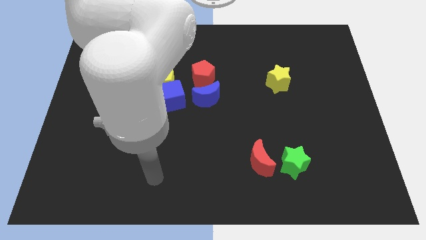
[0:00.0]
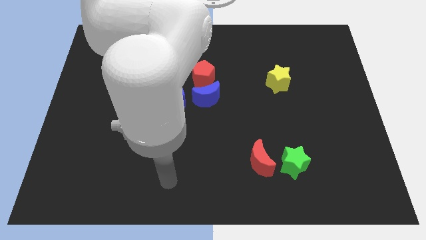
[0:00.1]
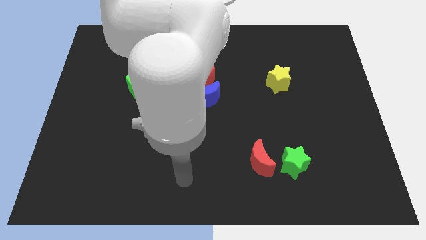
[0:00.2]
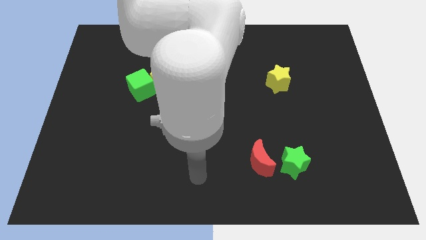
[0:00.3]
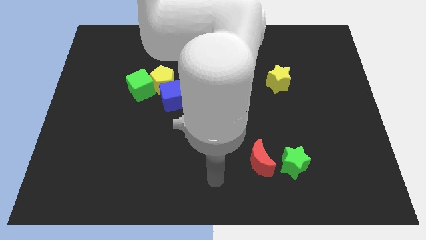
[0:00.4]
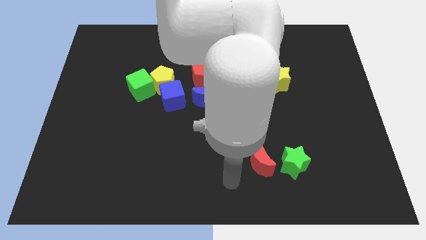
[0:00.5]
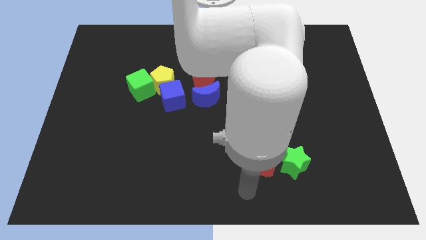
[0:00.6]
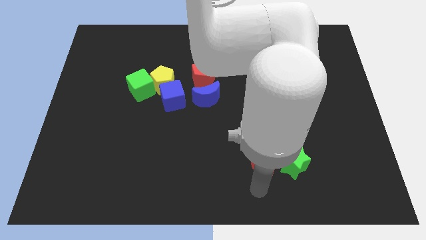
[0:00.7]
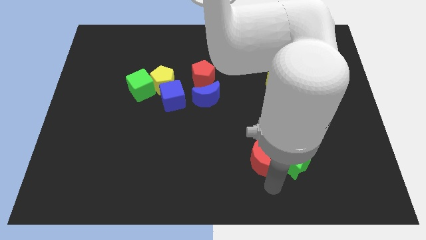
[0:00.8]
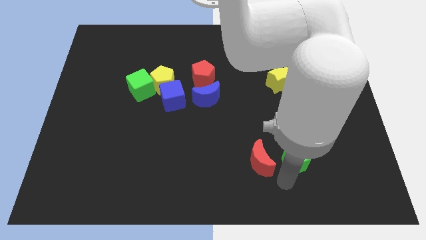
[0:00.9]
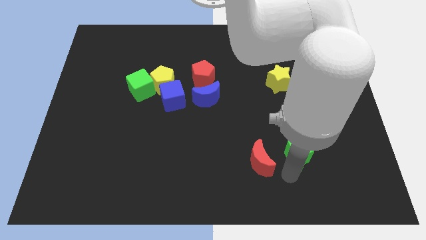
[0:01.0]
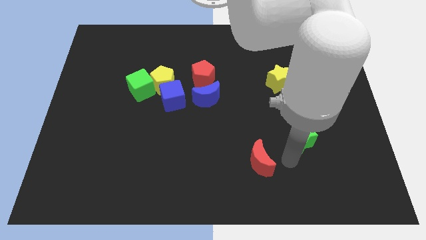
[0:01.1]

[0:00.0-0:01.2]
move the red moon away from the green star

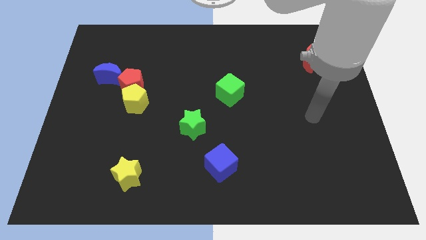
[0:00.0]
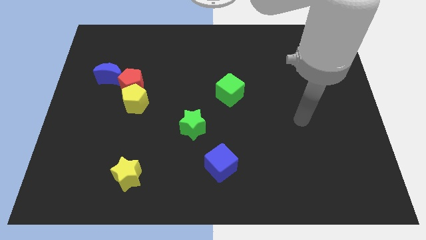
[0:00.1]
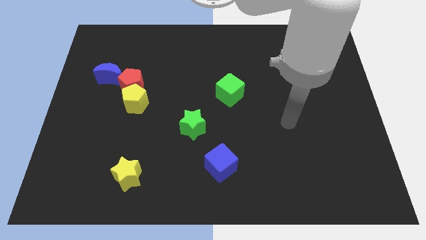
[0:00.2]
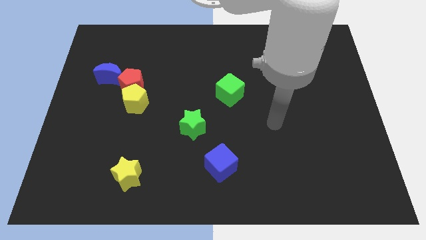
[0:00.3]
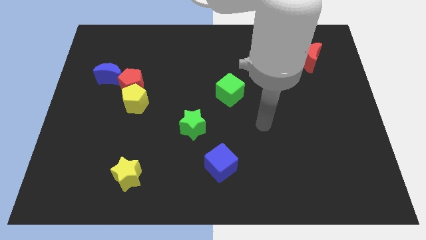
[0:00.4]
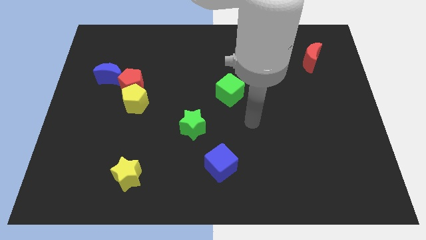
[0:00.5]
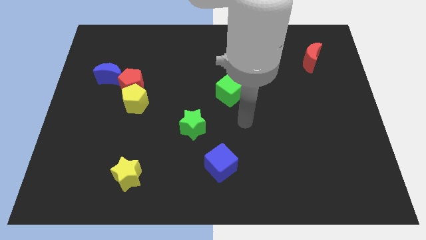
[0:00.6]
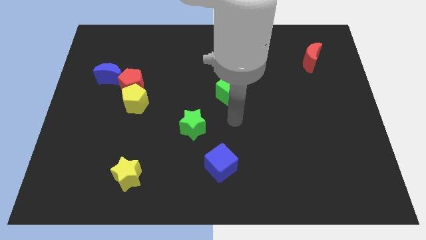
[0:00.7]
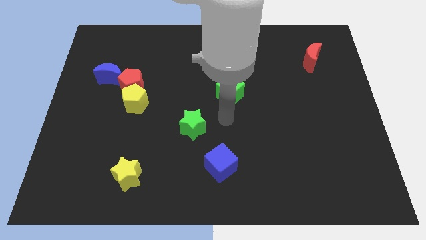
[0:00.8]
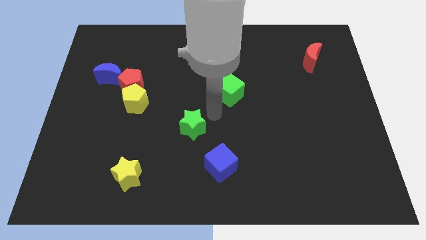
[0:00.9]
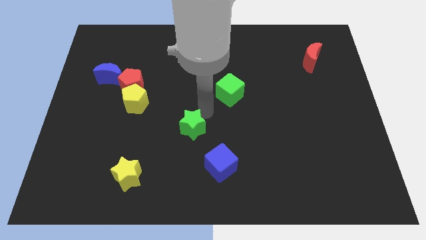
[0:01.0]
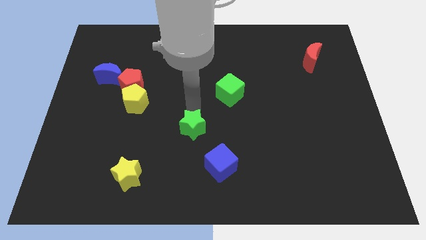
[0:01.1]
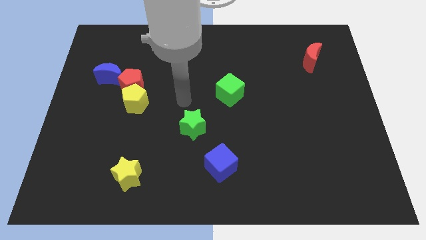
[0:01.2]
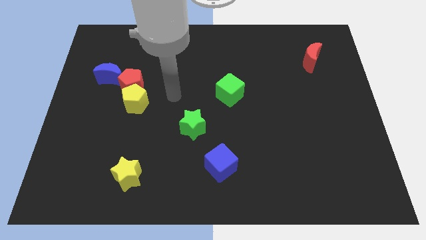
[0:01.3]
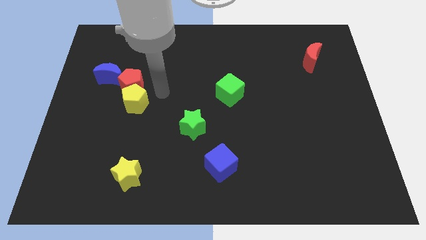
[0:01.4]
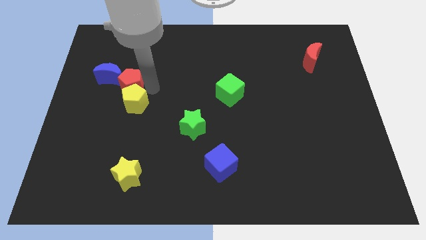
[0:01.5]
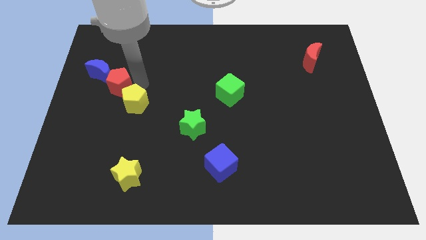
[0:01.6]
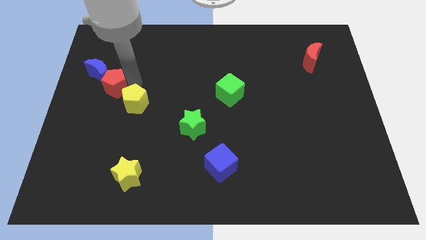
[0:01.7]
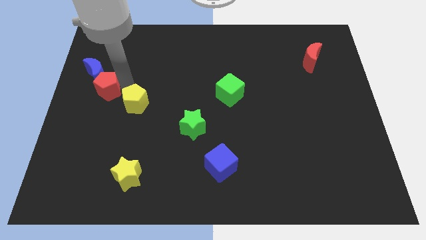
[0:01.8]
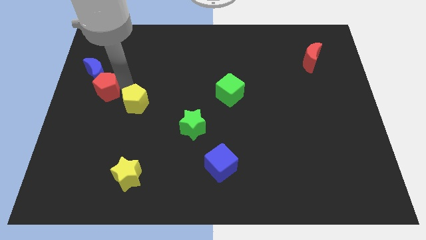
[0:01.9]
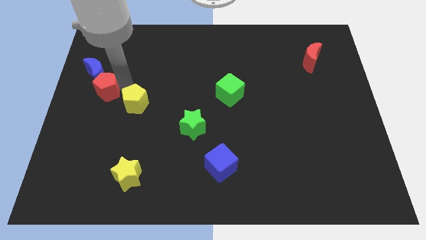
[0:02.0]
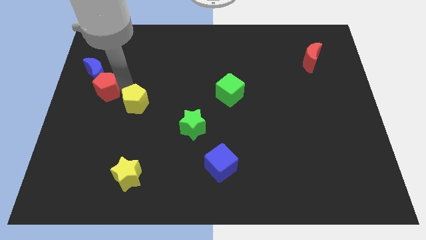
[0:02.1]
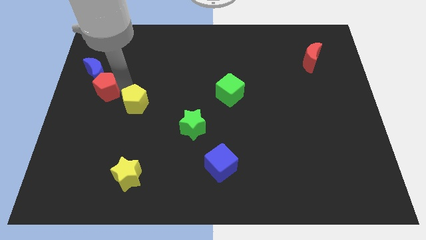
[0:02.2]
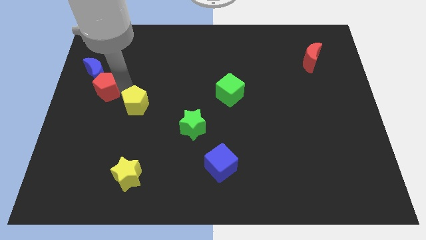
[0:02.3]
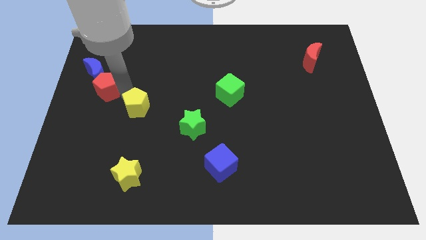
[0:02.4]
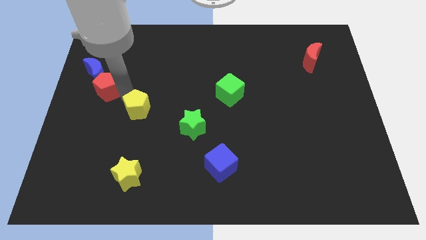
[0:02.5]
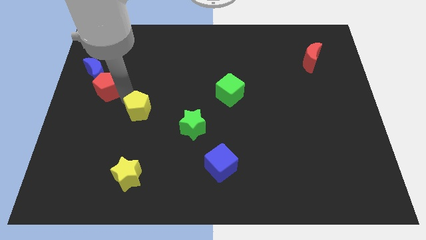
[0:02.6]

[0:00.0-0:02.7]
move the yellow pentagon away from the red pentagon

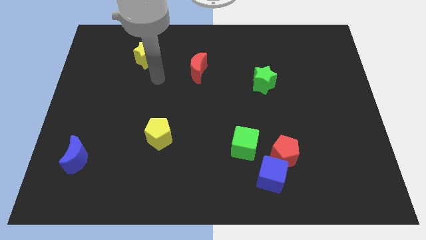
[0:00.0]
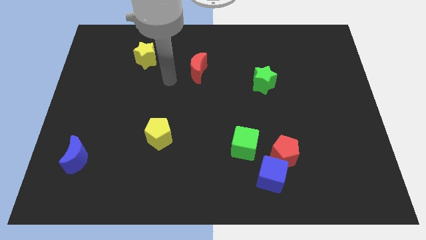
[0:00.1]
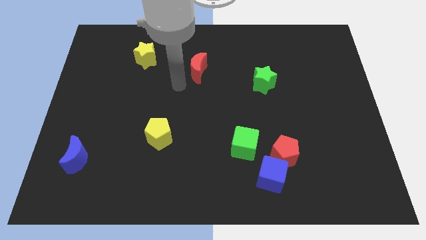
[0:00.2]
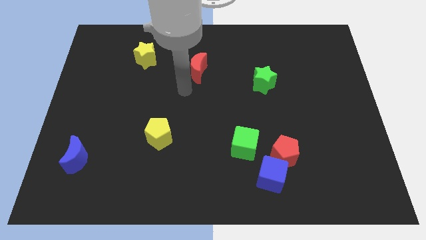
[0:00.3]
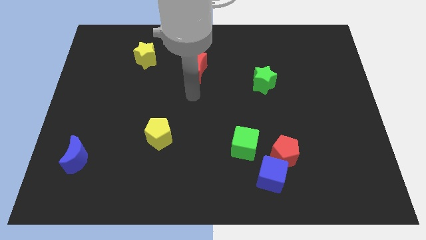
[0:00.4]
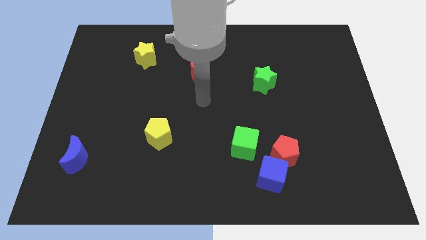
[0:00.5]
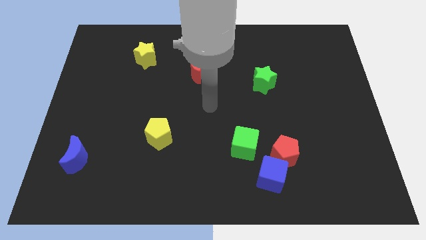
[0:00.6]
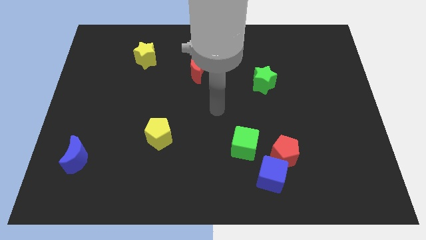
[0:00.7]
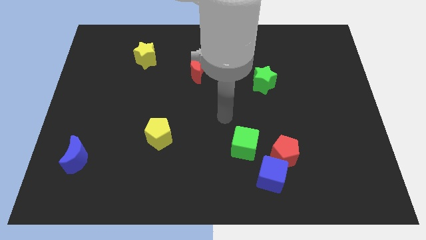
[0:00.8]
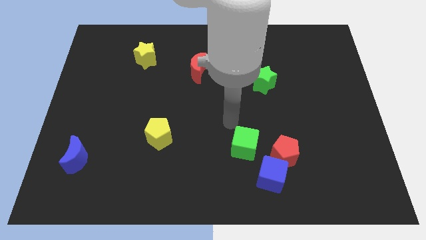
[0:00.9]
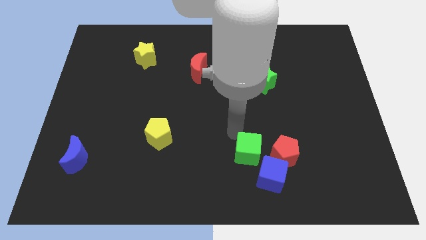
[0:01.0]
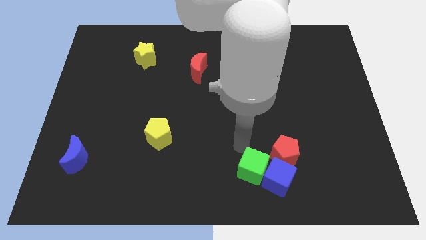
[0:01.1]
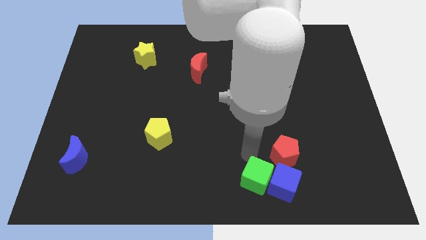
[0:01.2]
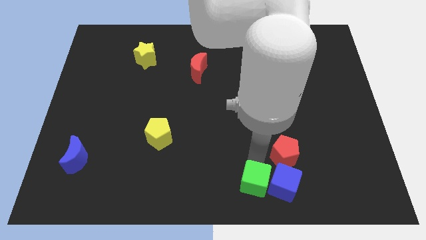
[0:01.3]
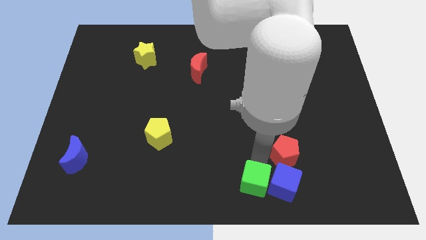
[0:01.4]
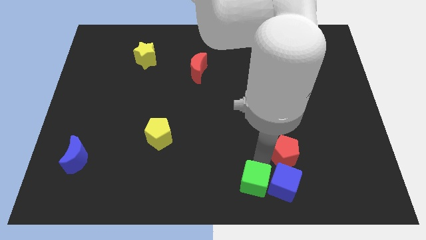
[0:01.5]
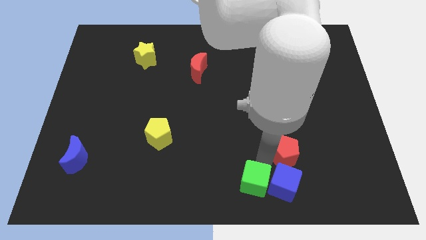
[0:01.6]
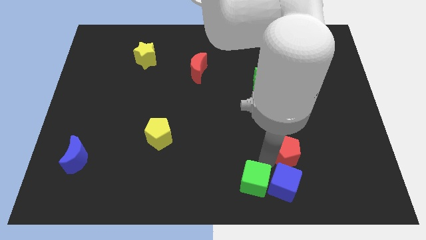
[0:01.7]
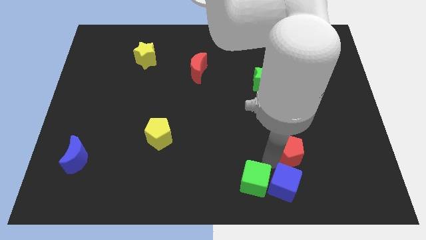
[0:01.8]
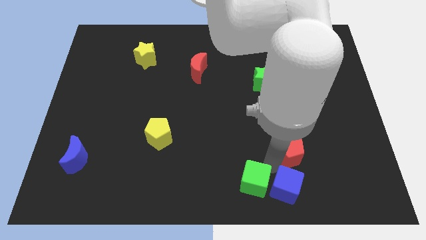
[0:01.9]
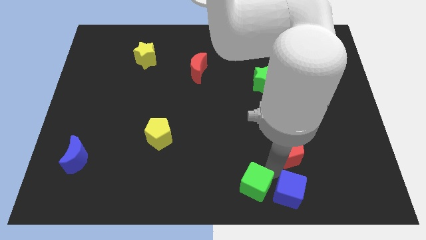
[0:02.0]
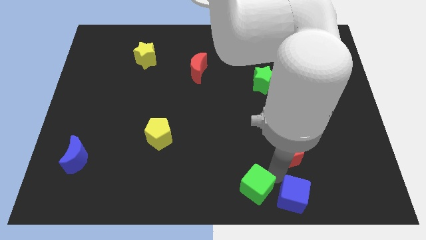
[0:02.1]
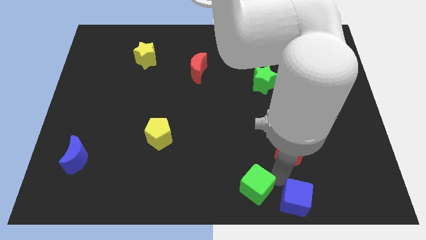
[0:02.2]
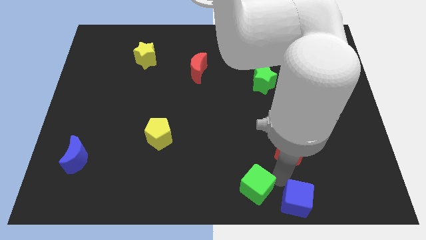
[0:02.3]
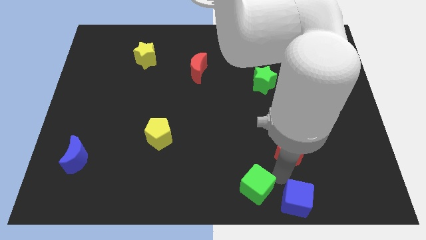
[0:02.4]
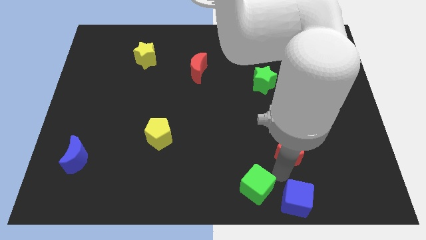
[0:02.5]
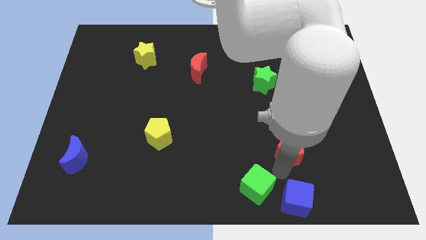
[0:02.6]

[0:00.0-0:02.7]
move the red pentagon away from the blue cube and green cube

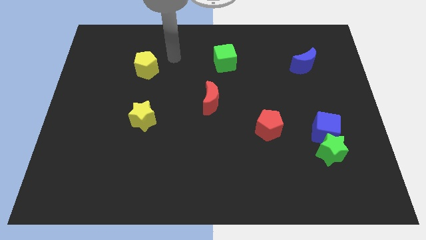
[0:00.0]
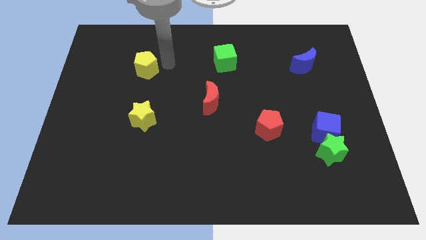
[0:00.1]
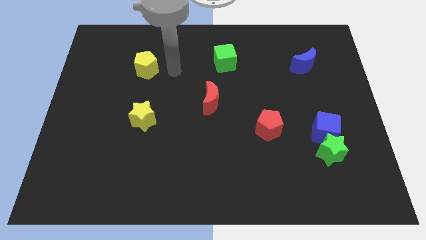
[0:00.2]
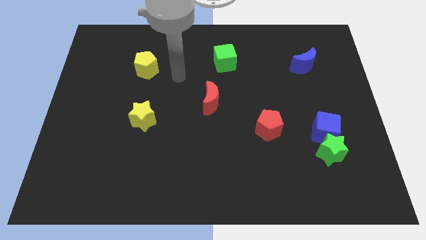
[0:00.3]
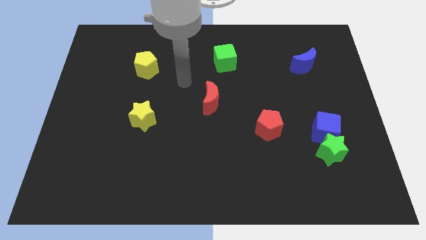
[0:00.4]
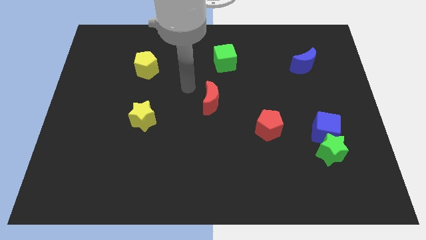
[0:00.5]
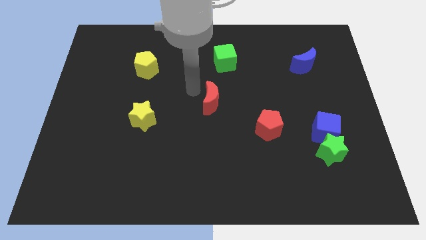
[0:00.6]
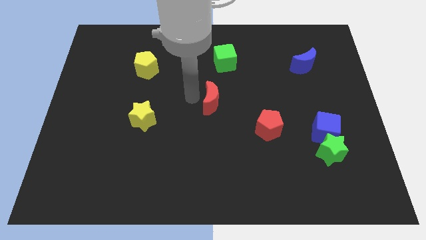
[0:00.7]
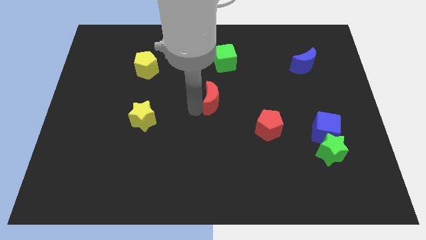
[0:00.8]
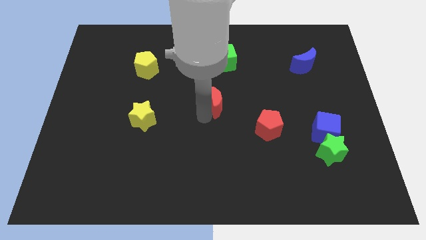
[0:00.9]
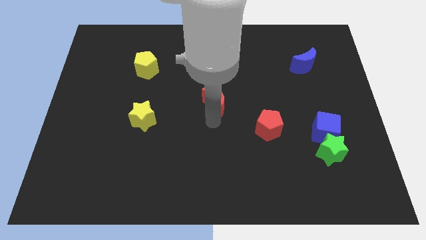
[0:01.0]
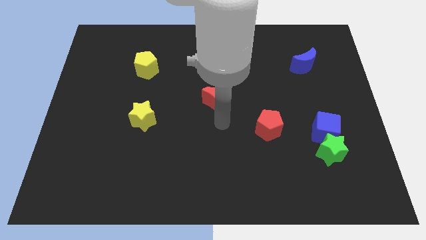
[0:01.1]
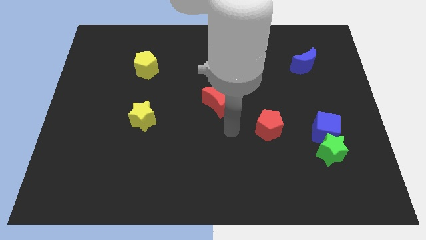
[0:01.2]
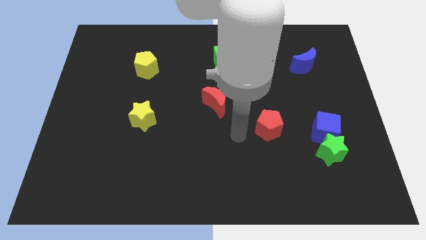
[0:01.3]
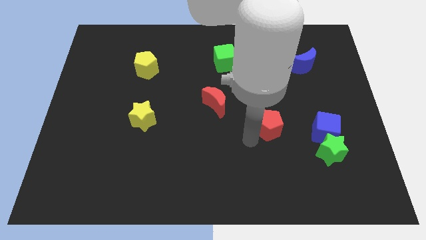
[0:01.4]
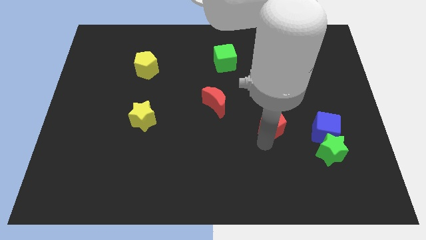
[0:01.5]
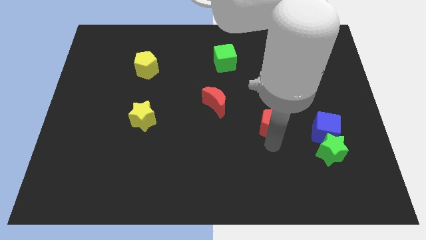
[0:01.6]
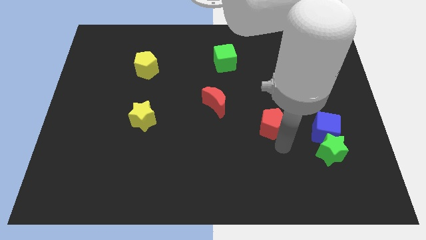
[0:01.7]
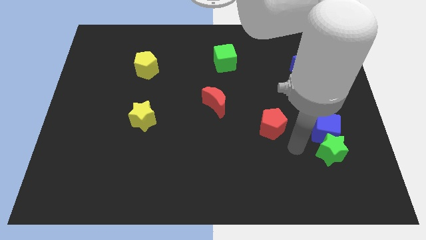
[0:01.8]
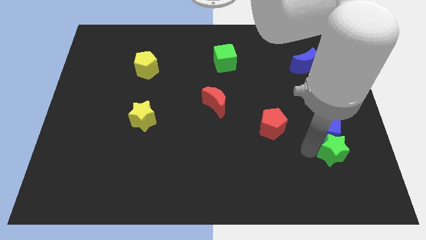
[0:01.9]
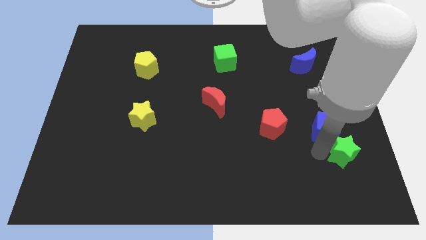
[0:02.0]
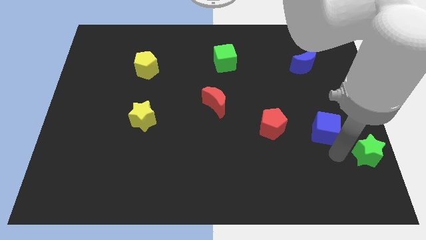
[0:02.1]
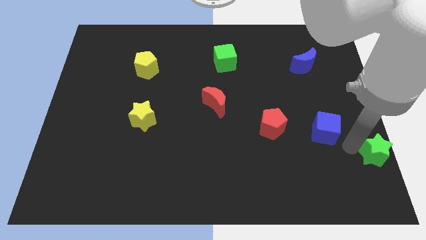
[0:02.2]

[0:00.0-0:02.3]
separate the blue cube from the green star

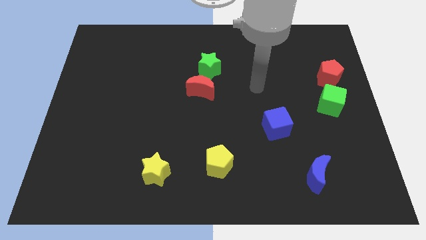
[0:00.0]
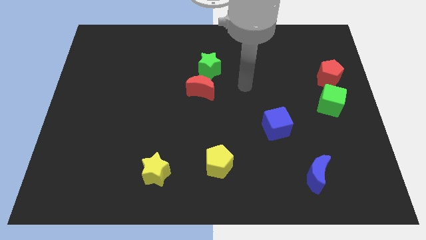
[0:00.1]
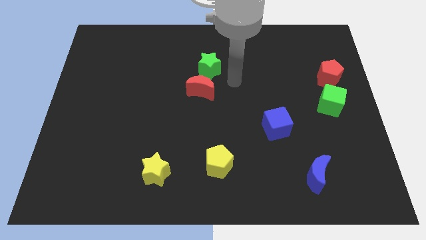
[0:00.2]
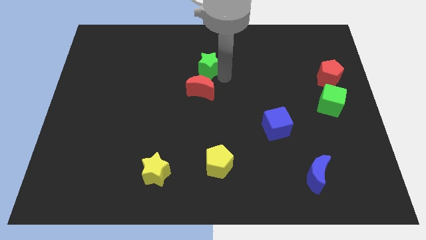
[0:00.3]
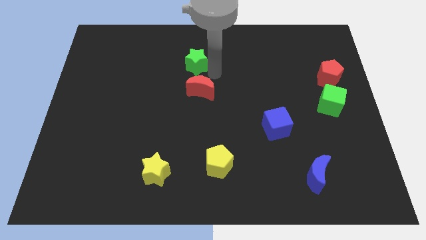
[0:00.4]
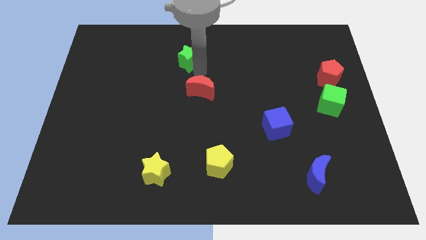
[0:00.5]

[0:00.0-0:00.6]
pull the red moon apart from the green star
